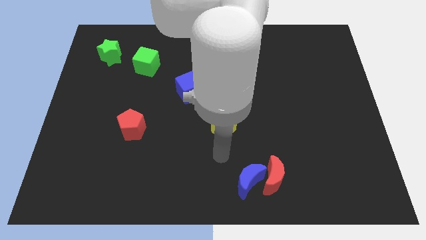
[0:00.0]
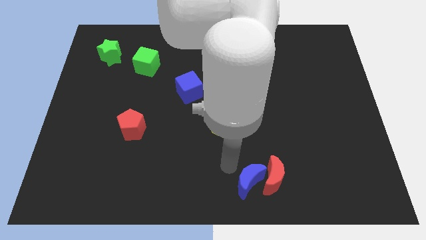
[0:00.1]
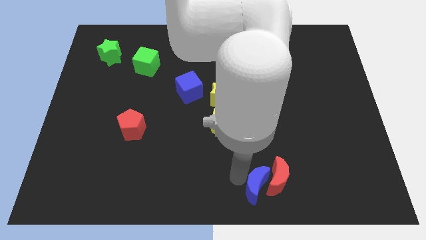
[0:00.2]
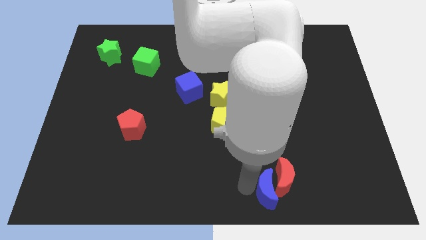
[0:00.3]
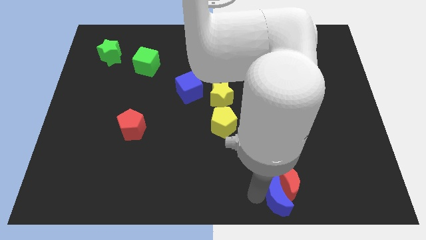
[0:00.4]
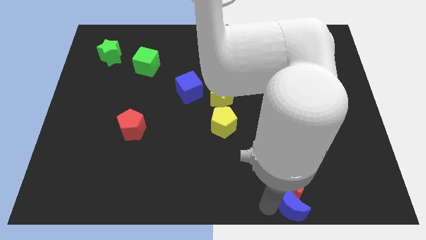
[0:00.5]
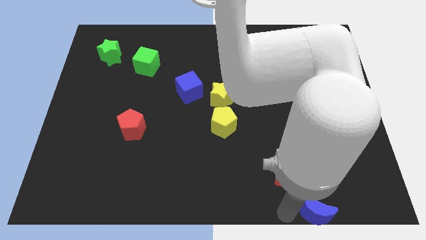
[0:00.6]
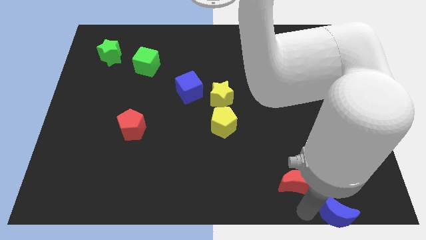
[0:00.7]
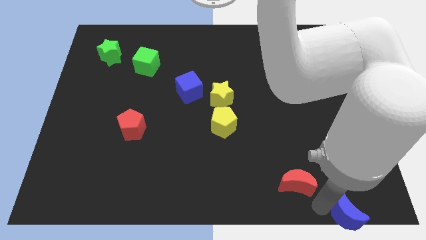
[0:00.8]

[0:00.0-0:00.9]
separate the red moon from the blue moon

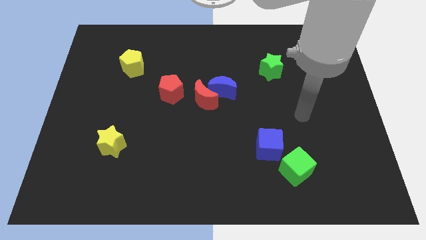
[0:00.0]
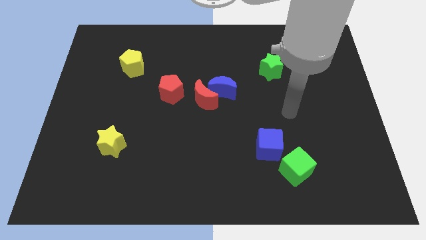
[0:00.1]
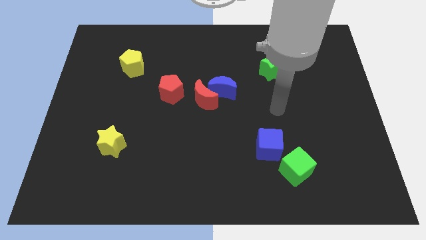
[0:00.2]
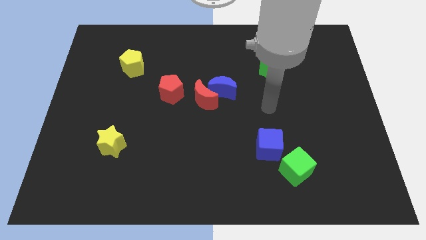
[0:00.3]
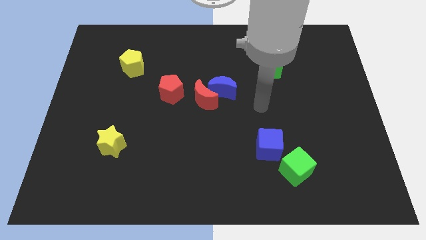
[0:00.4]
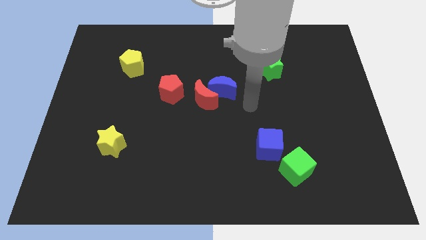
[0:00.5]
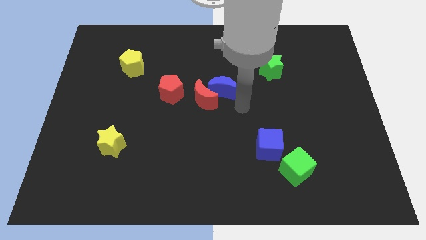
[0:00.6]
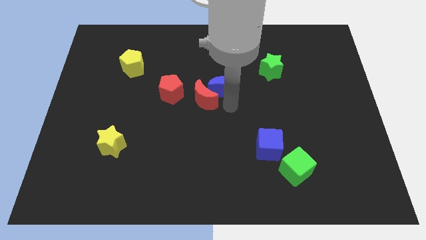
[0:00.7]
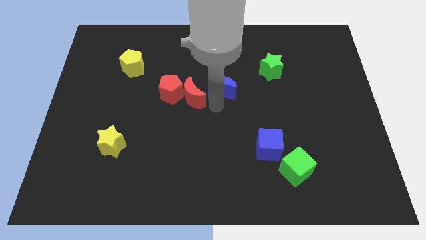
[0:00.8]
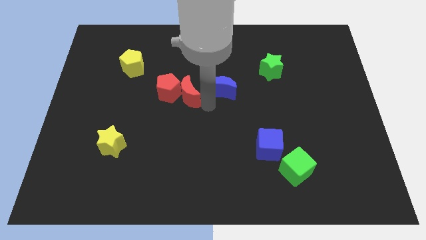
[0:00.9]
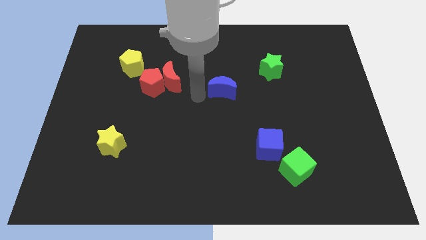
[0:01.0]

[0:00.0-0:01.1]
pull the blue moon apart from the red moon

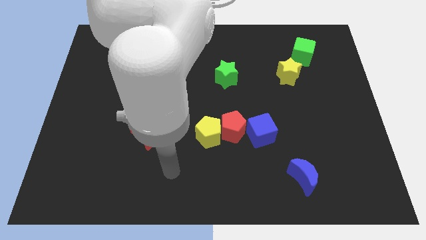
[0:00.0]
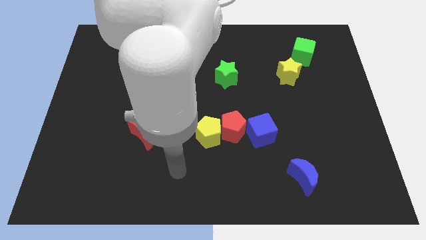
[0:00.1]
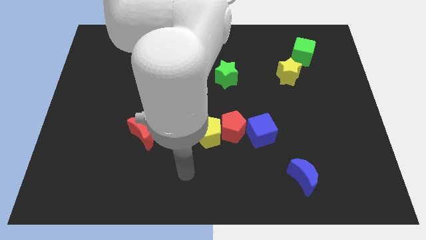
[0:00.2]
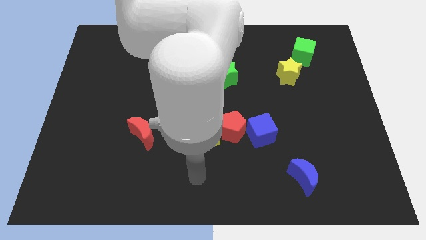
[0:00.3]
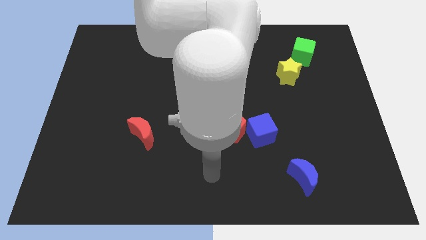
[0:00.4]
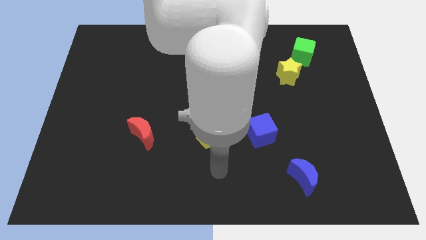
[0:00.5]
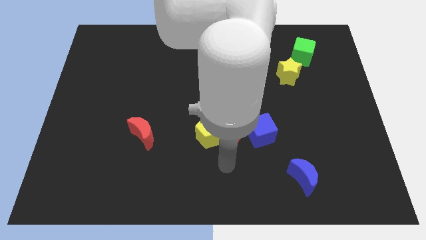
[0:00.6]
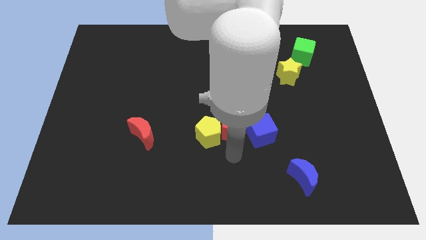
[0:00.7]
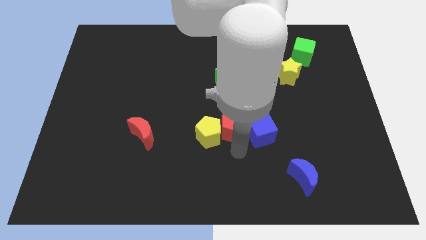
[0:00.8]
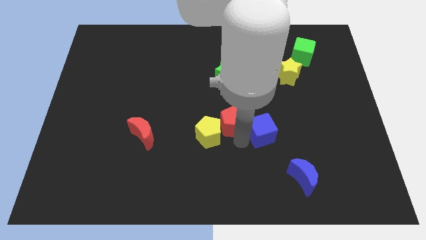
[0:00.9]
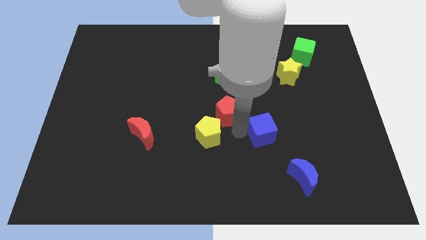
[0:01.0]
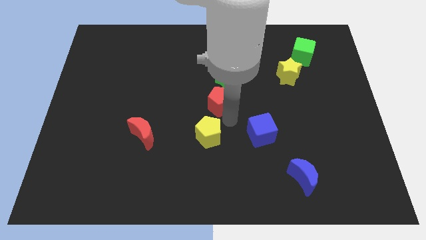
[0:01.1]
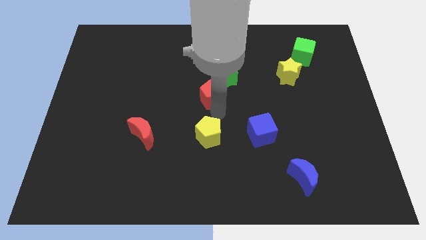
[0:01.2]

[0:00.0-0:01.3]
move the yellow pentagon away from the red pentagon

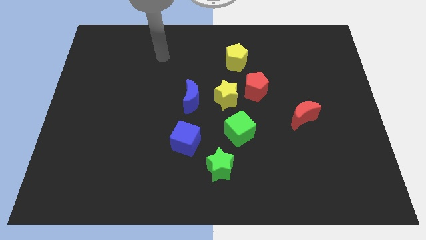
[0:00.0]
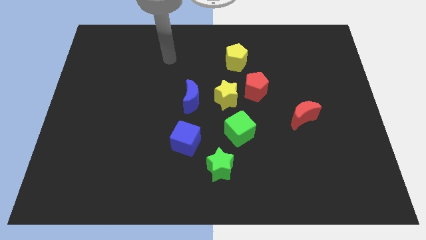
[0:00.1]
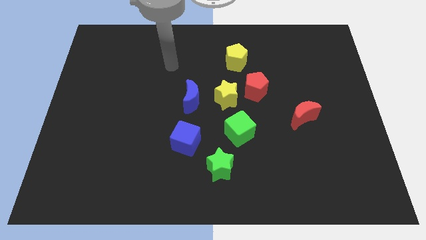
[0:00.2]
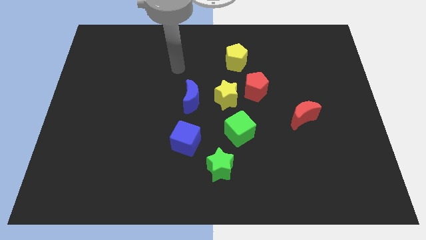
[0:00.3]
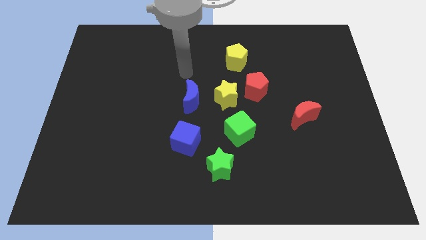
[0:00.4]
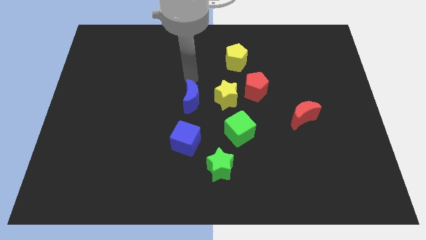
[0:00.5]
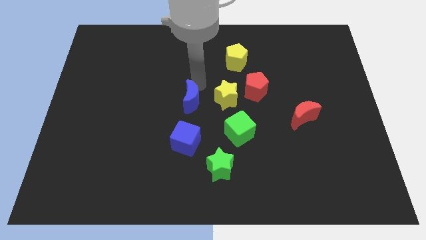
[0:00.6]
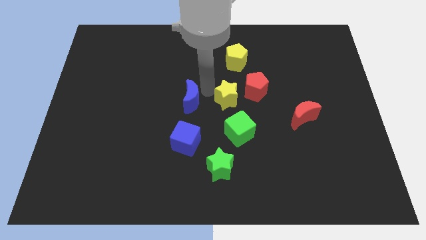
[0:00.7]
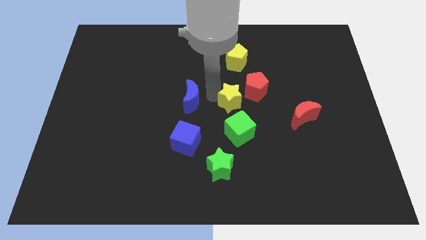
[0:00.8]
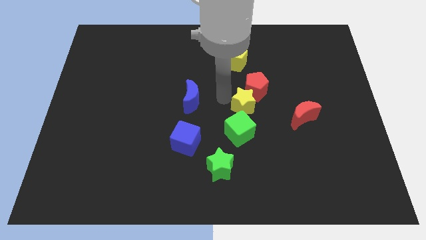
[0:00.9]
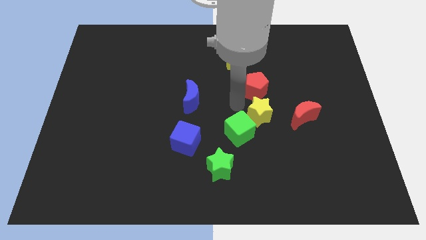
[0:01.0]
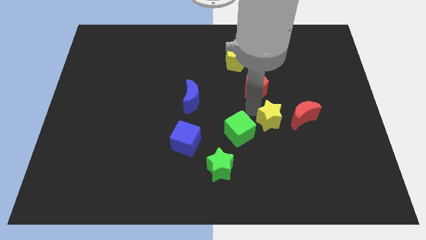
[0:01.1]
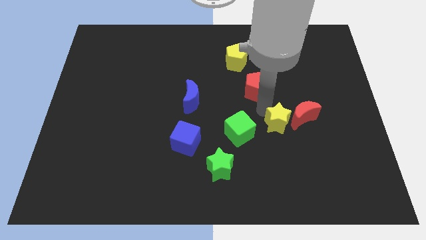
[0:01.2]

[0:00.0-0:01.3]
move the red pentagon away from the yellow star

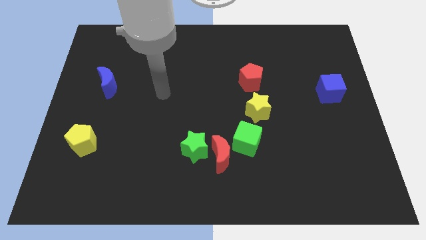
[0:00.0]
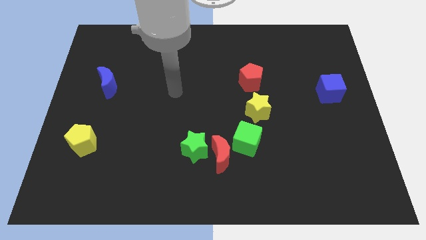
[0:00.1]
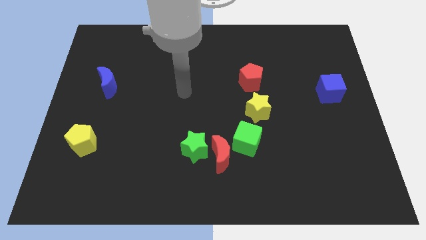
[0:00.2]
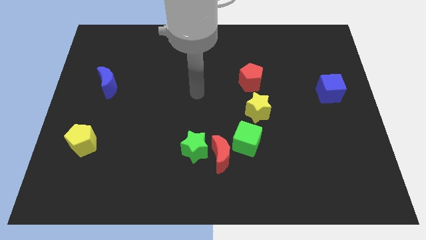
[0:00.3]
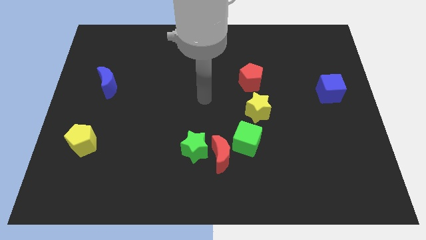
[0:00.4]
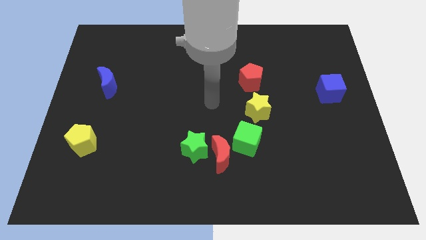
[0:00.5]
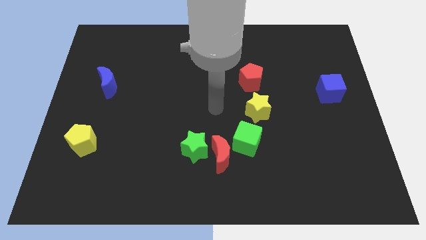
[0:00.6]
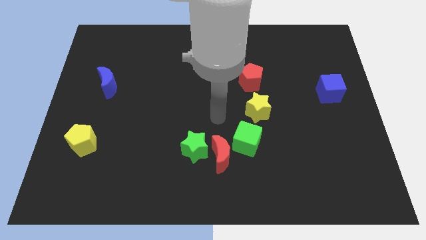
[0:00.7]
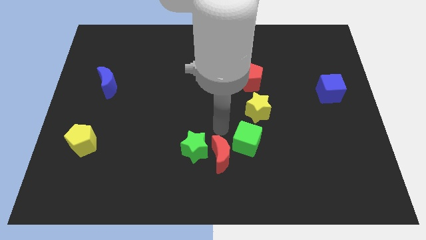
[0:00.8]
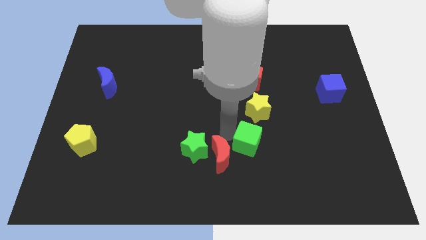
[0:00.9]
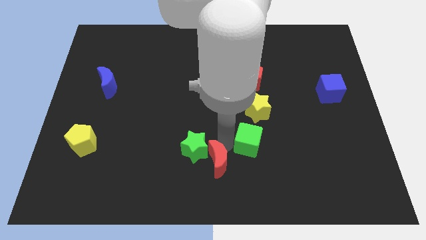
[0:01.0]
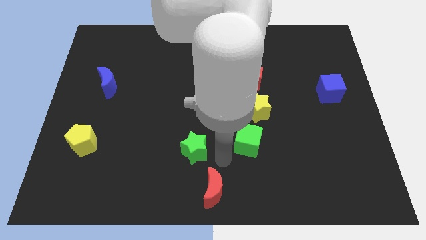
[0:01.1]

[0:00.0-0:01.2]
separate the green star from the red moon

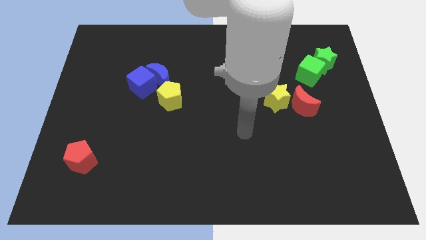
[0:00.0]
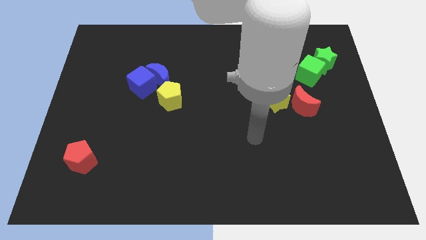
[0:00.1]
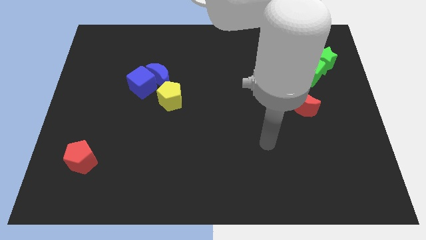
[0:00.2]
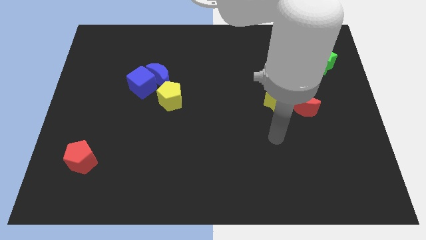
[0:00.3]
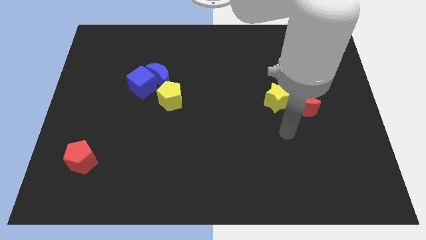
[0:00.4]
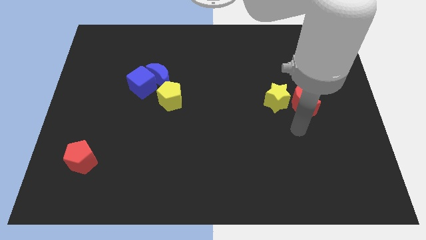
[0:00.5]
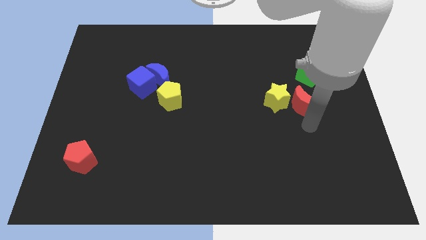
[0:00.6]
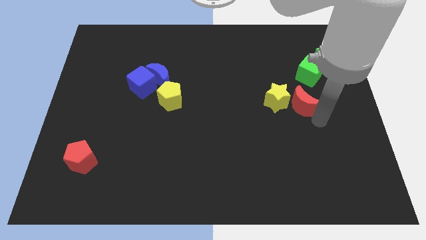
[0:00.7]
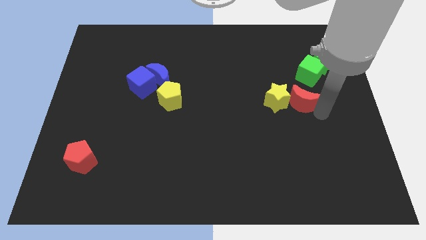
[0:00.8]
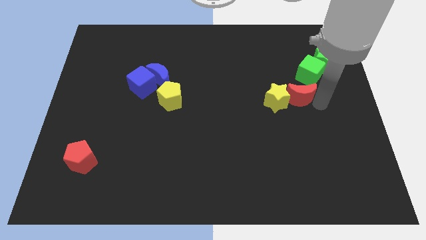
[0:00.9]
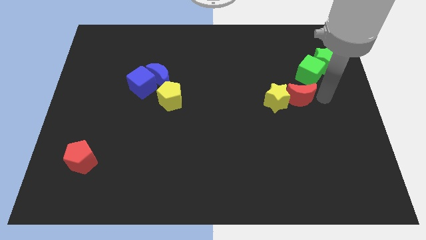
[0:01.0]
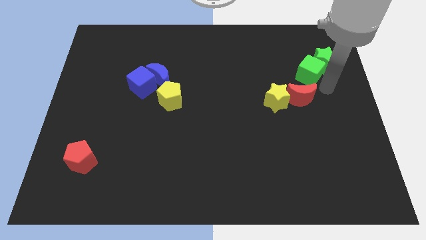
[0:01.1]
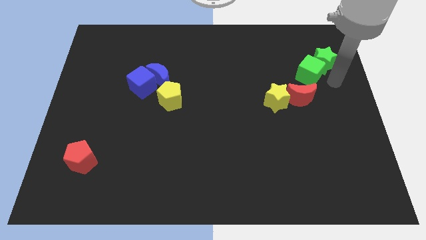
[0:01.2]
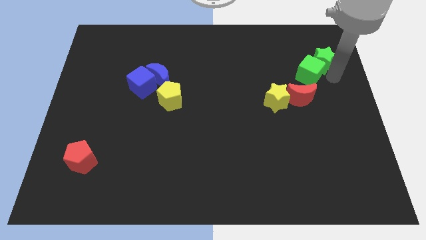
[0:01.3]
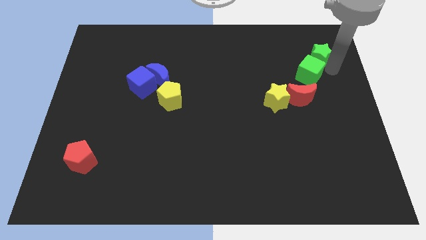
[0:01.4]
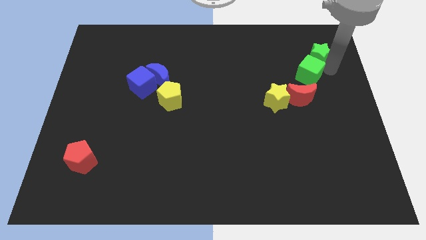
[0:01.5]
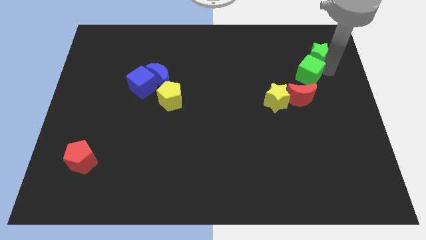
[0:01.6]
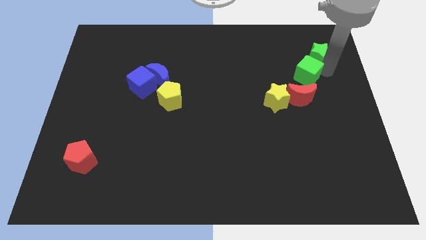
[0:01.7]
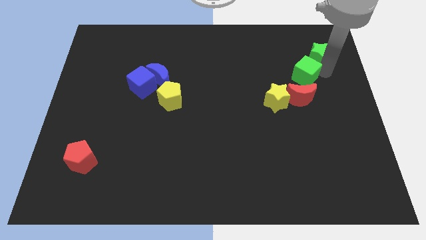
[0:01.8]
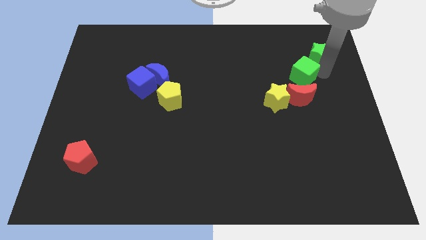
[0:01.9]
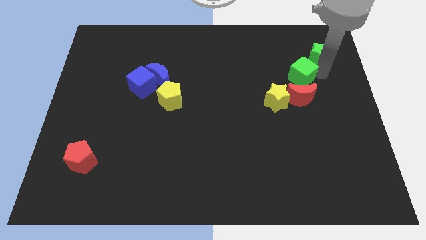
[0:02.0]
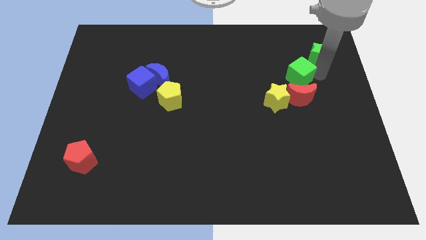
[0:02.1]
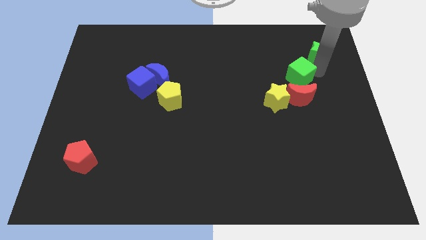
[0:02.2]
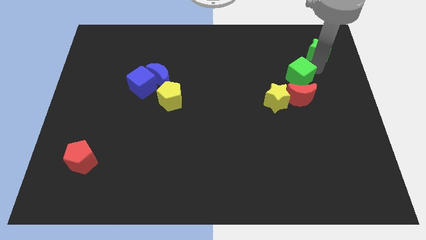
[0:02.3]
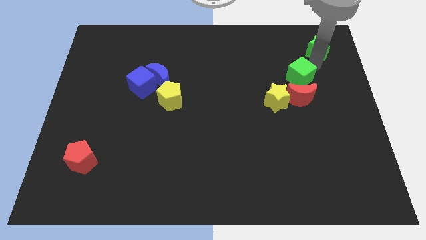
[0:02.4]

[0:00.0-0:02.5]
move the green cube away from the green star

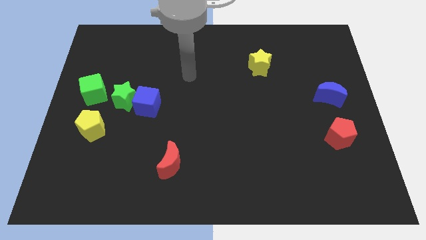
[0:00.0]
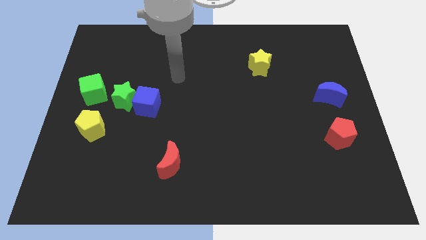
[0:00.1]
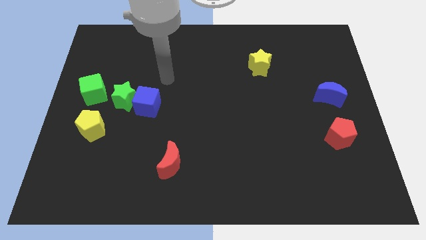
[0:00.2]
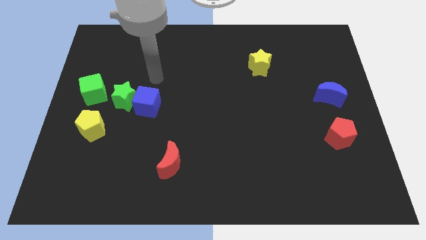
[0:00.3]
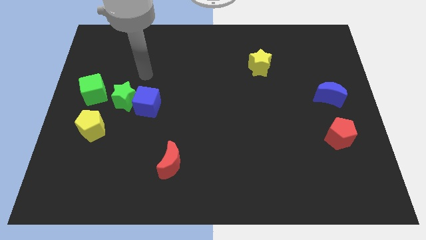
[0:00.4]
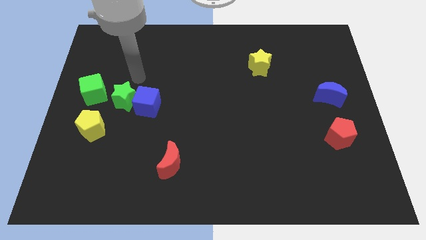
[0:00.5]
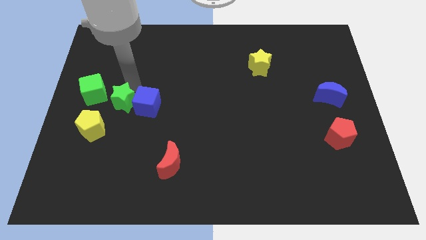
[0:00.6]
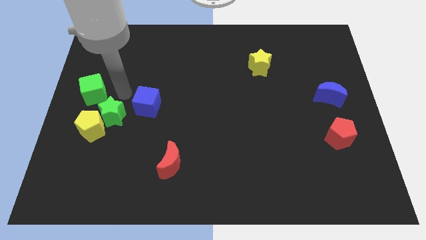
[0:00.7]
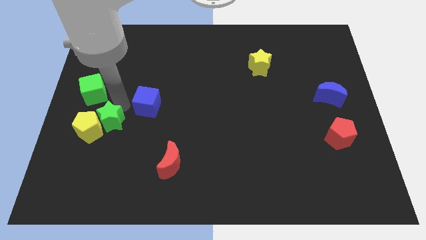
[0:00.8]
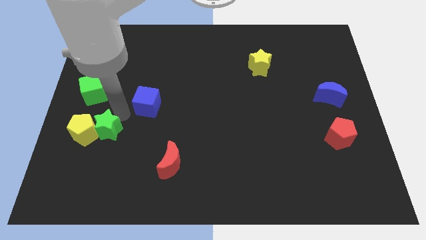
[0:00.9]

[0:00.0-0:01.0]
separate the blue cube from the green star

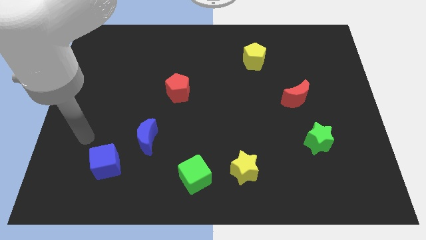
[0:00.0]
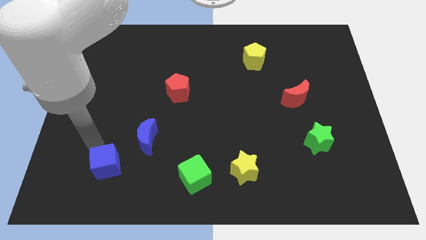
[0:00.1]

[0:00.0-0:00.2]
separate the blue moon from the blue cube
